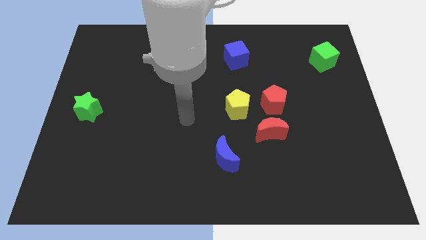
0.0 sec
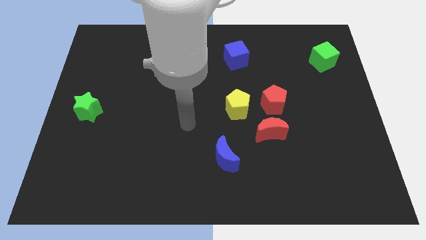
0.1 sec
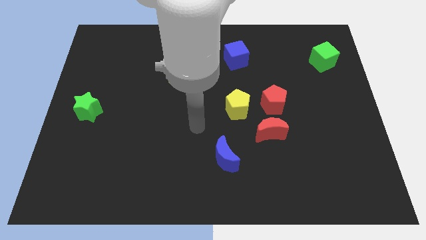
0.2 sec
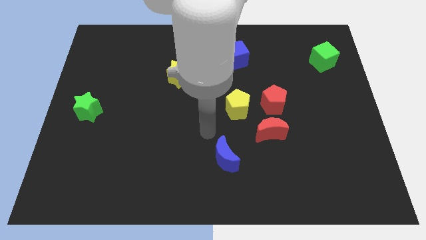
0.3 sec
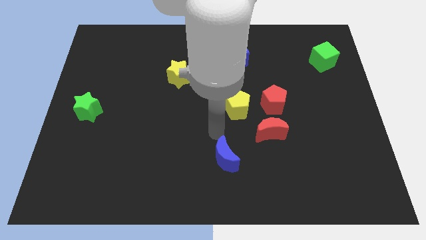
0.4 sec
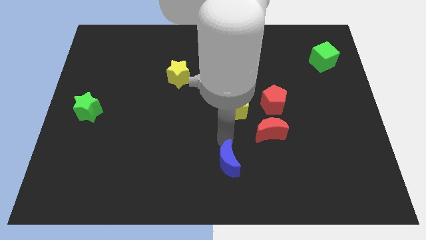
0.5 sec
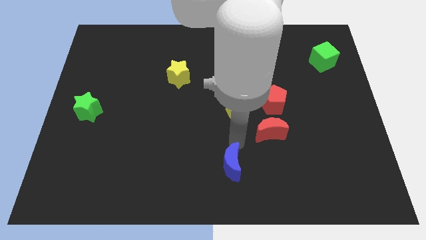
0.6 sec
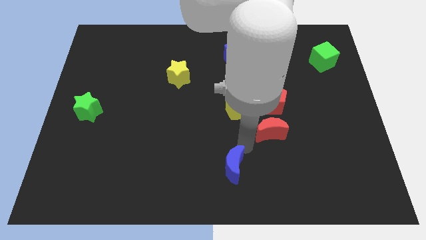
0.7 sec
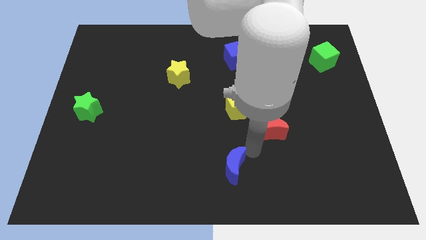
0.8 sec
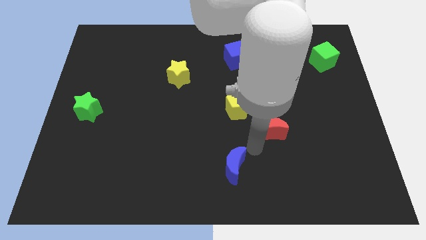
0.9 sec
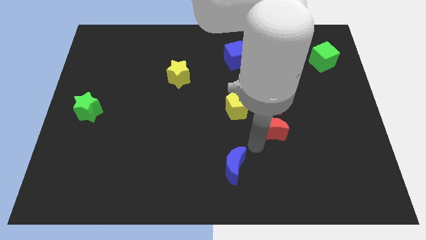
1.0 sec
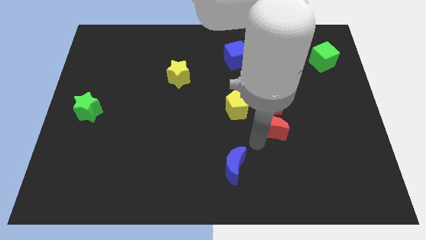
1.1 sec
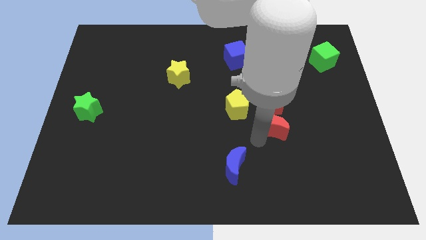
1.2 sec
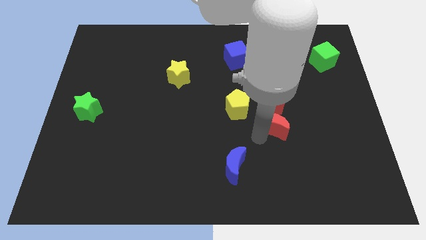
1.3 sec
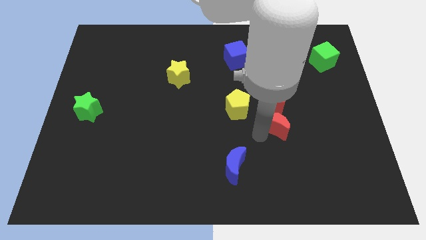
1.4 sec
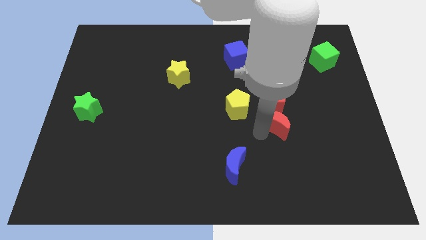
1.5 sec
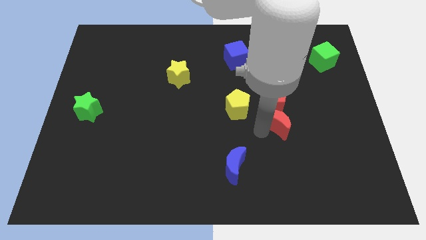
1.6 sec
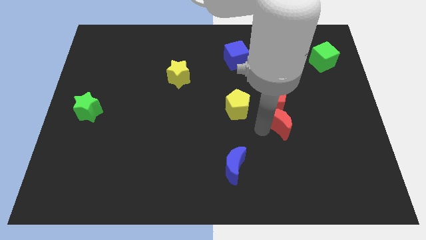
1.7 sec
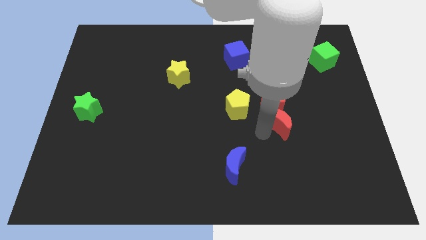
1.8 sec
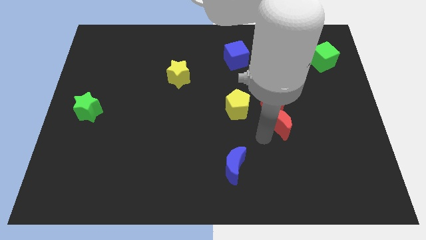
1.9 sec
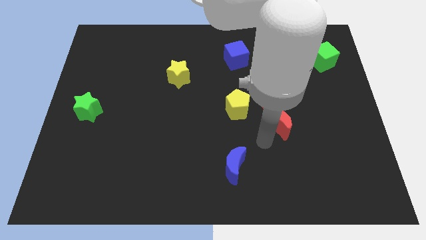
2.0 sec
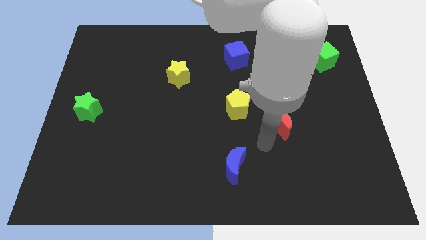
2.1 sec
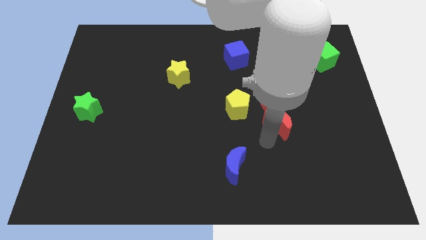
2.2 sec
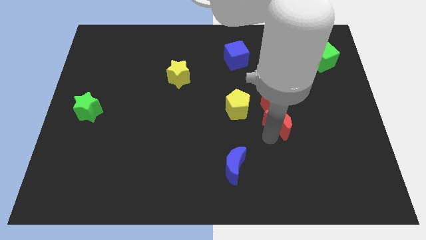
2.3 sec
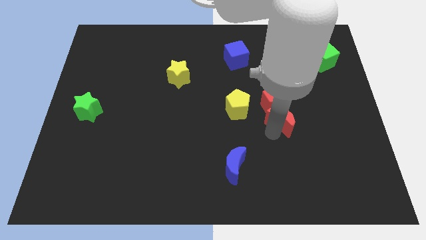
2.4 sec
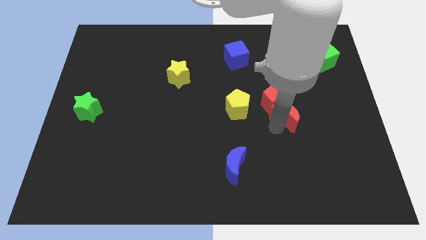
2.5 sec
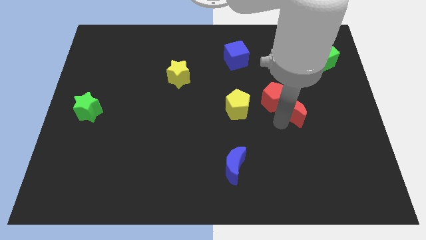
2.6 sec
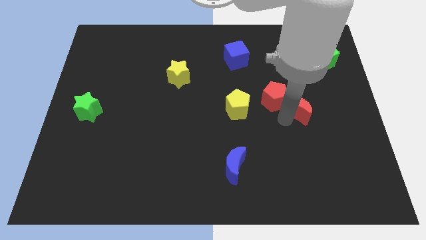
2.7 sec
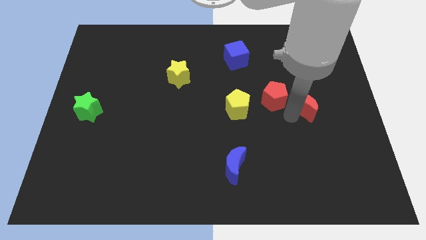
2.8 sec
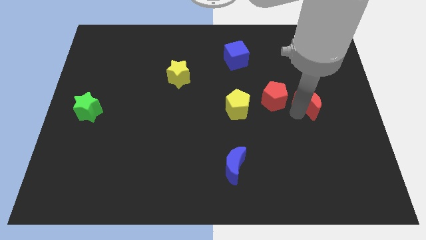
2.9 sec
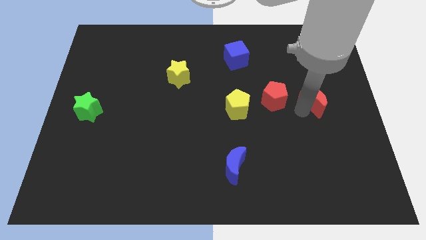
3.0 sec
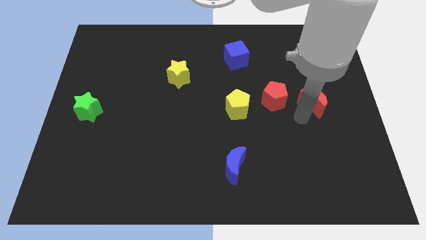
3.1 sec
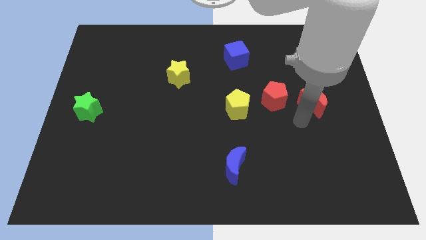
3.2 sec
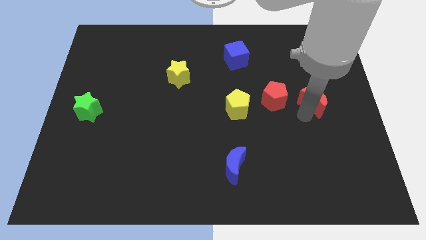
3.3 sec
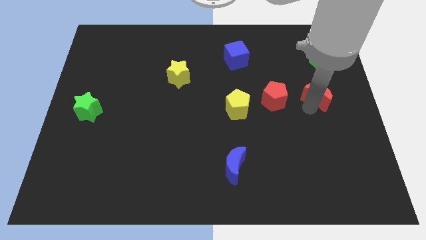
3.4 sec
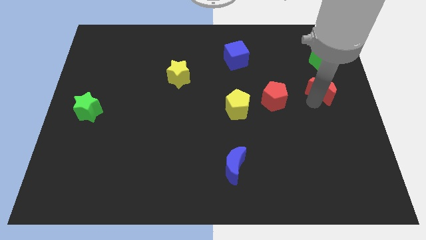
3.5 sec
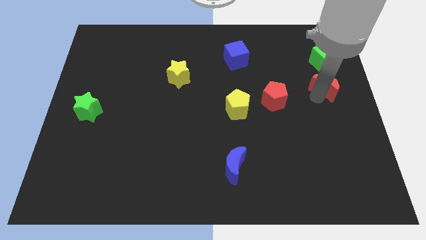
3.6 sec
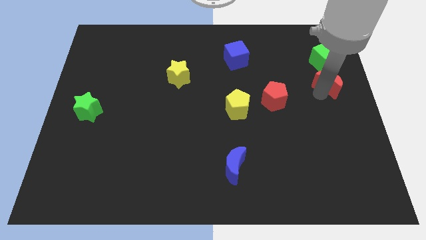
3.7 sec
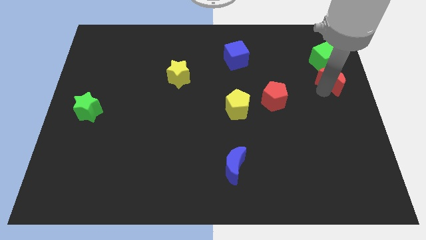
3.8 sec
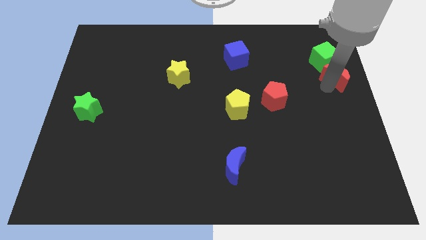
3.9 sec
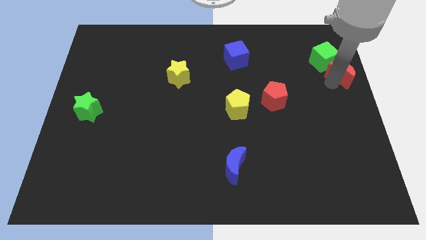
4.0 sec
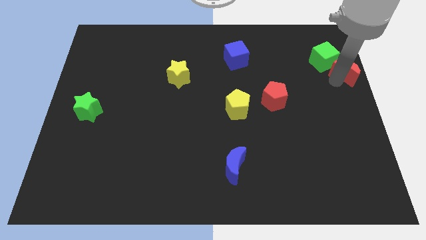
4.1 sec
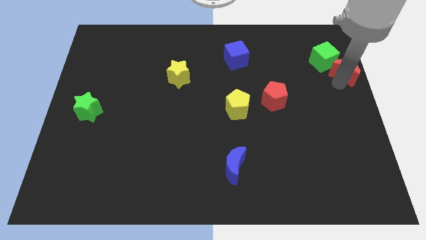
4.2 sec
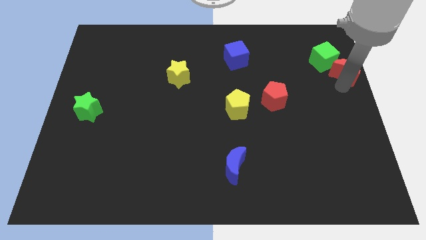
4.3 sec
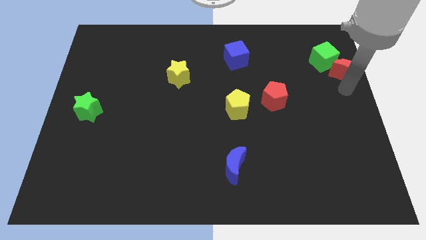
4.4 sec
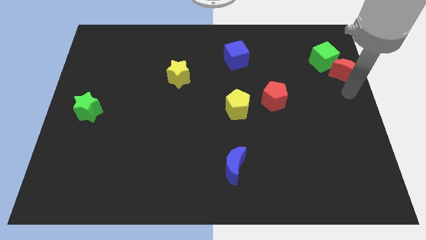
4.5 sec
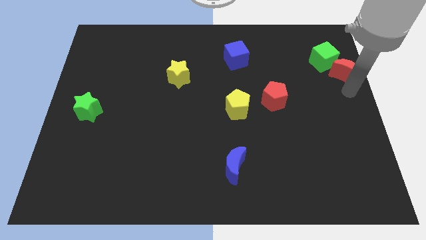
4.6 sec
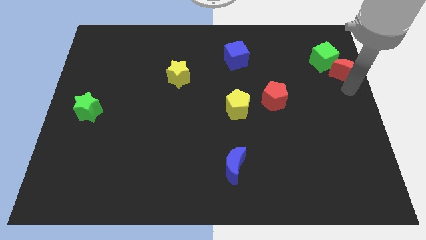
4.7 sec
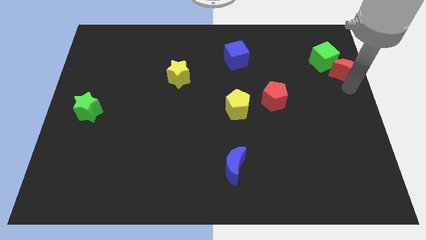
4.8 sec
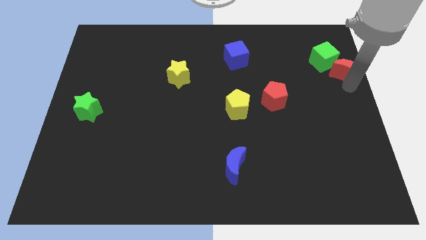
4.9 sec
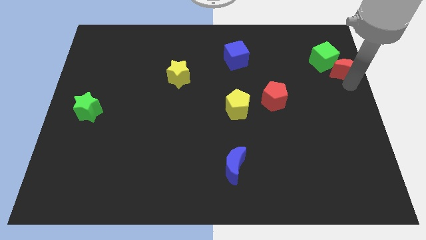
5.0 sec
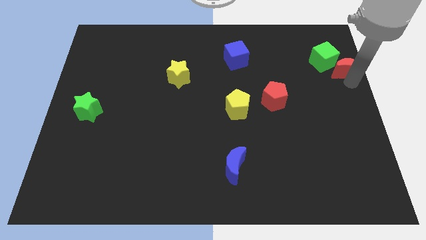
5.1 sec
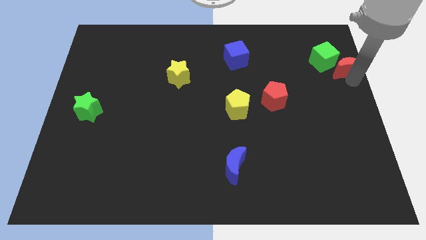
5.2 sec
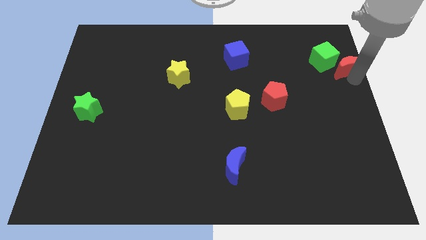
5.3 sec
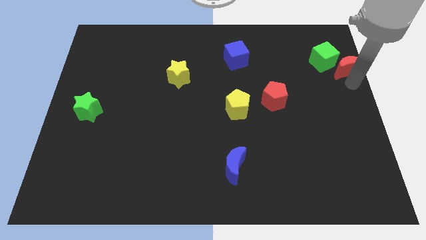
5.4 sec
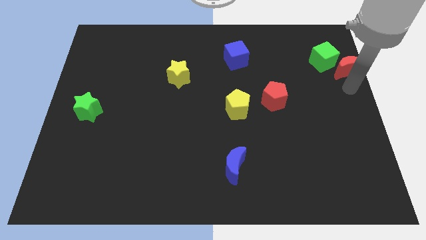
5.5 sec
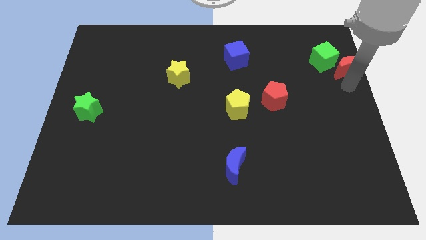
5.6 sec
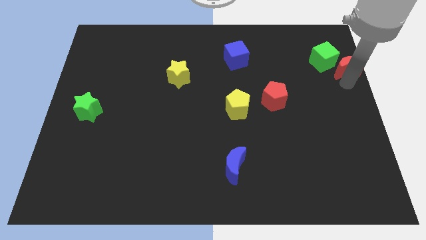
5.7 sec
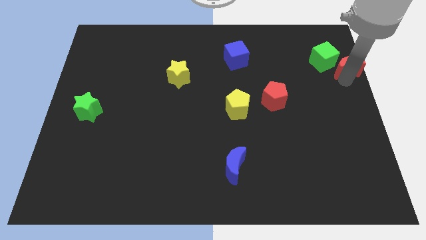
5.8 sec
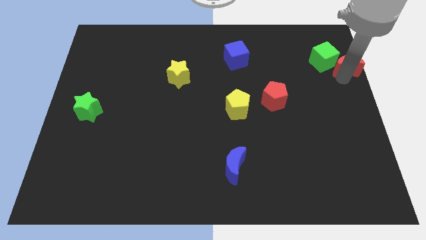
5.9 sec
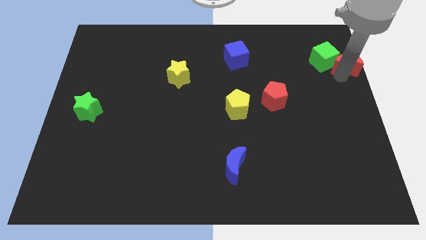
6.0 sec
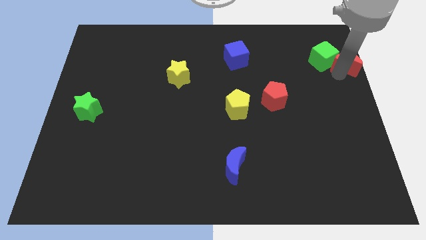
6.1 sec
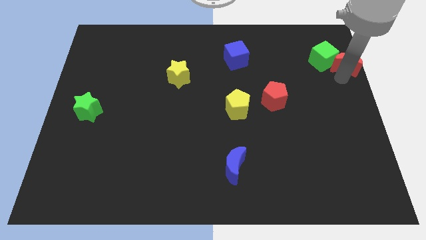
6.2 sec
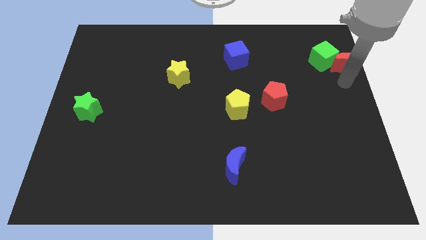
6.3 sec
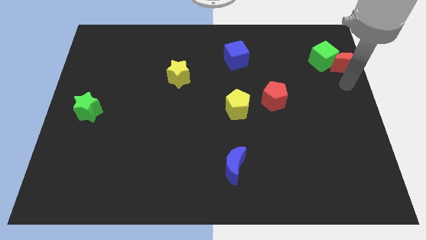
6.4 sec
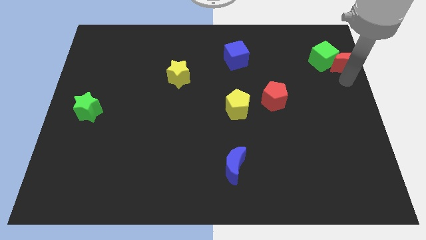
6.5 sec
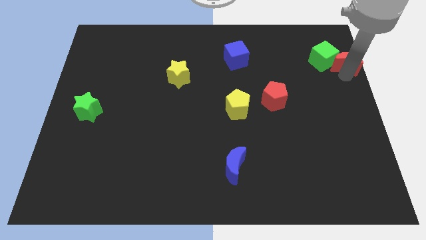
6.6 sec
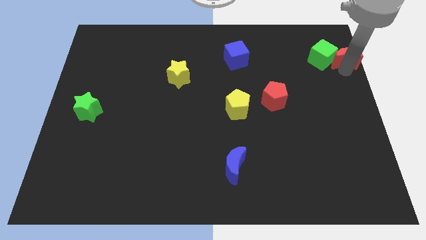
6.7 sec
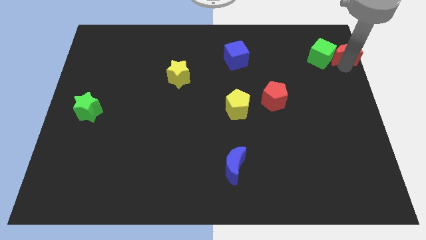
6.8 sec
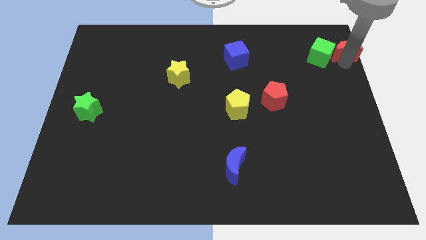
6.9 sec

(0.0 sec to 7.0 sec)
put the red moon to the top right
